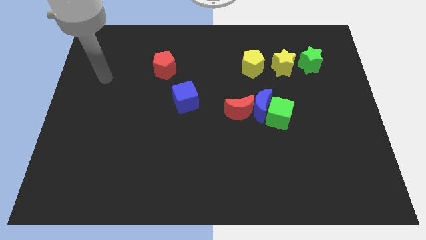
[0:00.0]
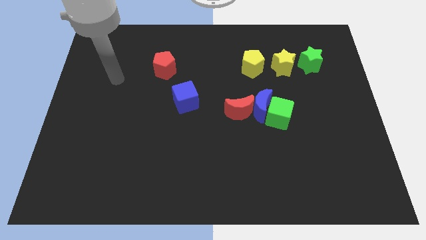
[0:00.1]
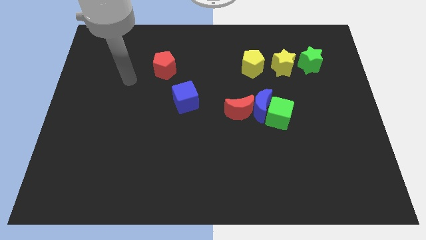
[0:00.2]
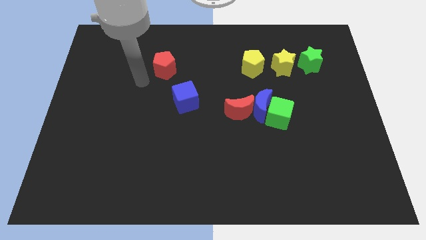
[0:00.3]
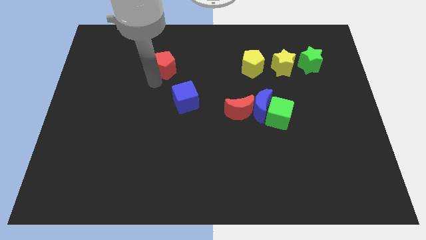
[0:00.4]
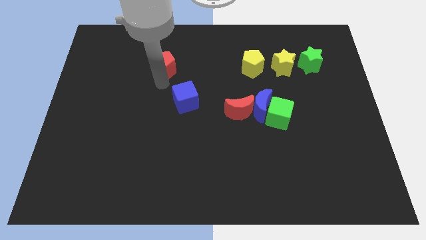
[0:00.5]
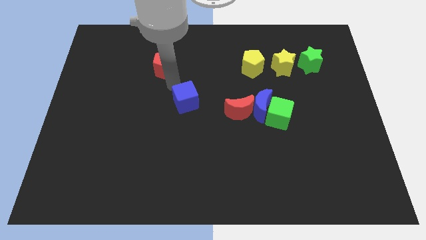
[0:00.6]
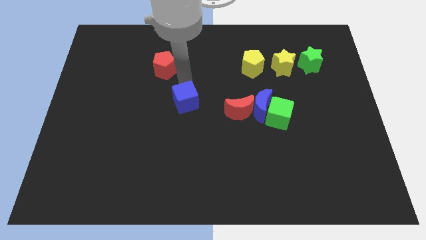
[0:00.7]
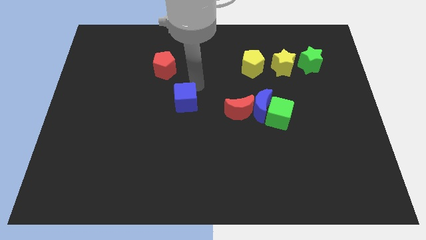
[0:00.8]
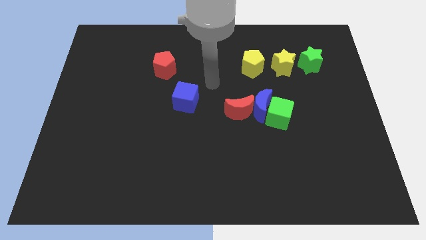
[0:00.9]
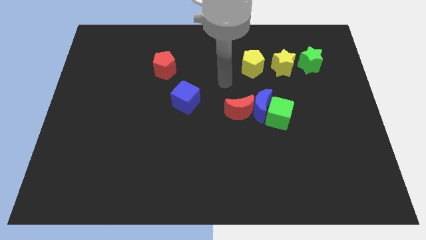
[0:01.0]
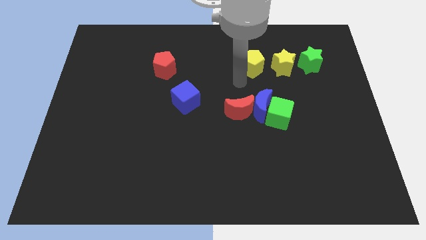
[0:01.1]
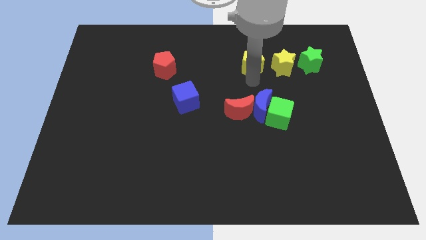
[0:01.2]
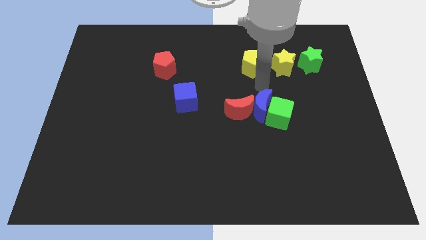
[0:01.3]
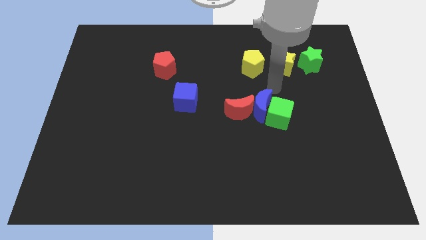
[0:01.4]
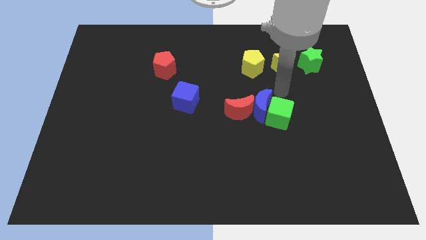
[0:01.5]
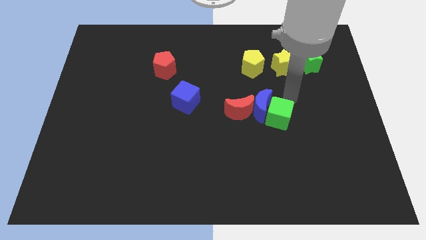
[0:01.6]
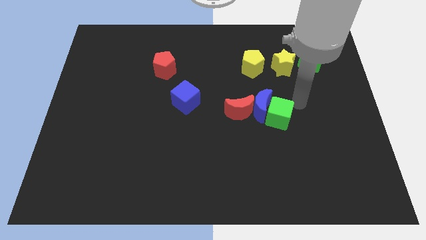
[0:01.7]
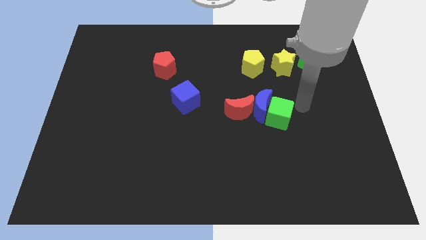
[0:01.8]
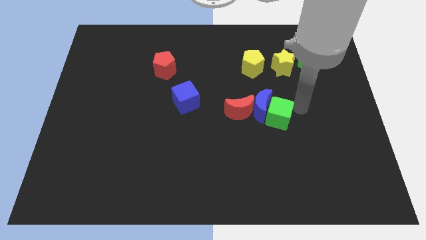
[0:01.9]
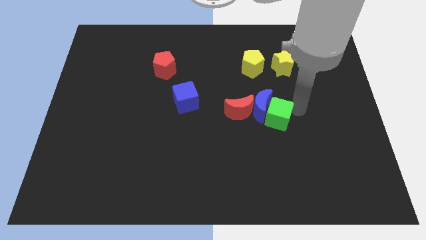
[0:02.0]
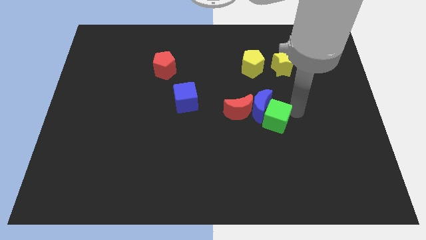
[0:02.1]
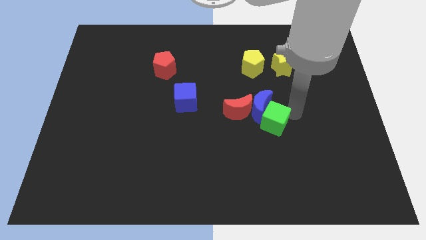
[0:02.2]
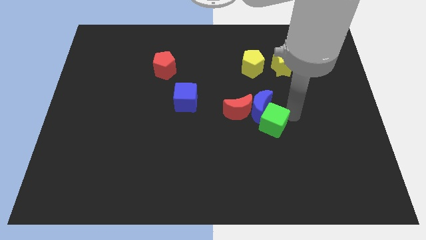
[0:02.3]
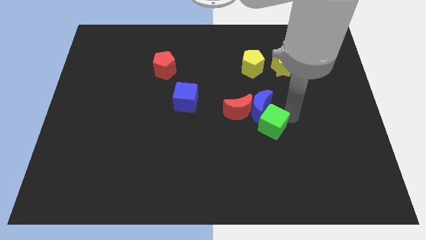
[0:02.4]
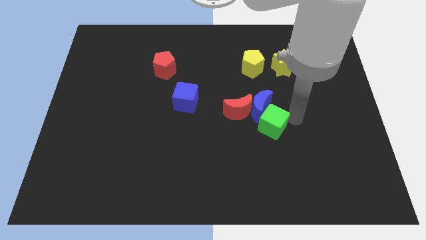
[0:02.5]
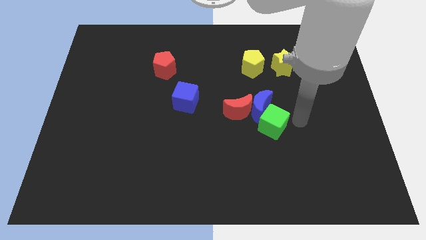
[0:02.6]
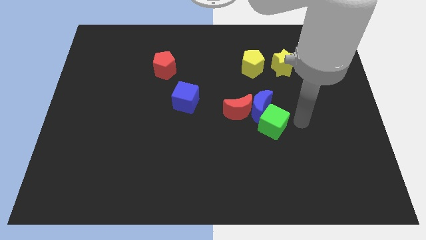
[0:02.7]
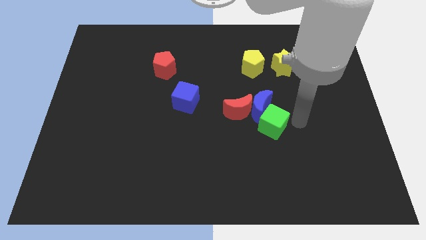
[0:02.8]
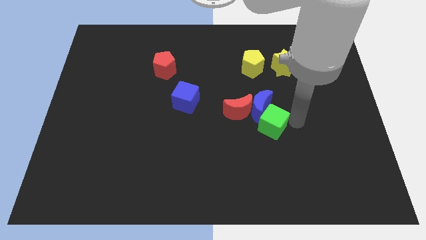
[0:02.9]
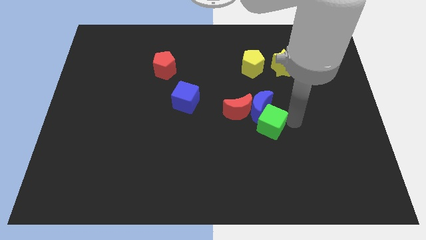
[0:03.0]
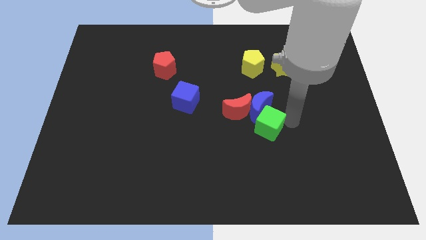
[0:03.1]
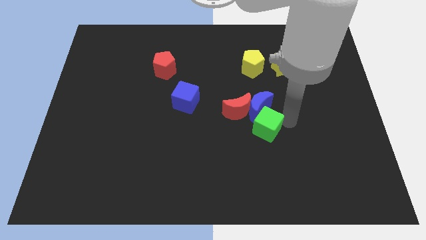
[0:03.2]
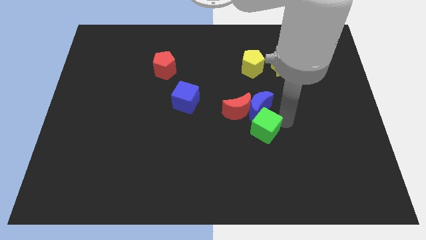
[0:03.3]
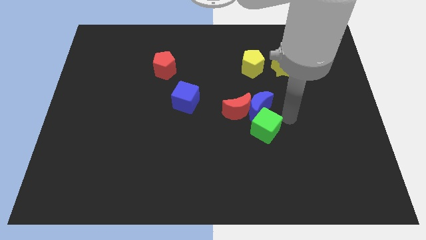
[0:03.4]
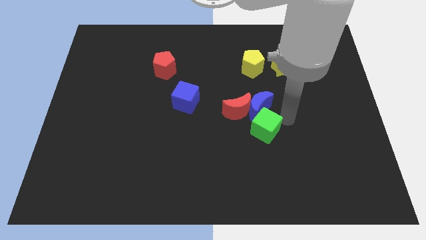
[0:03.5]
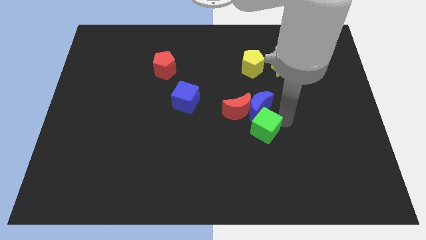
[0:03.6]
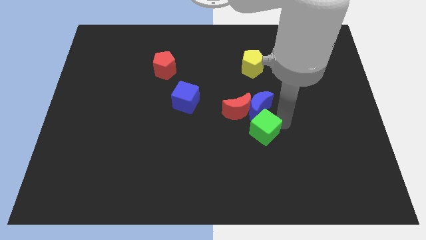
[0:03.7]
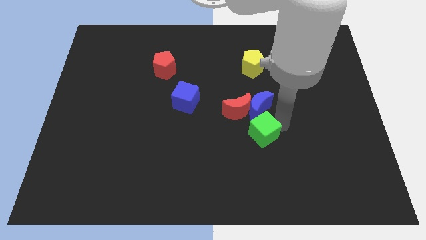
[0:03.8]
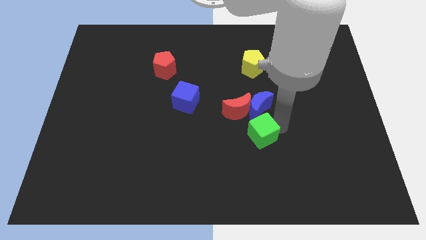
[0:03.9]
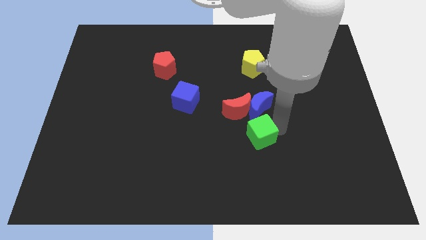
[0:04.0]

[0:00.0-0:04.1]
slightly slide the green cube downwards and then to the left

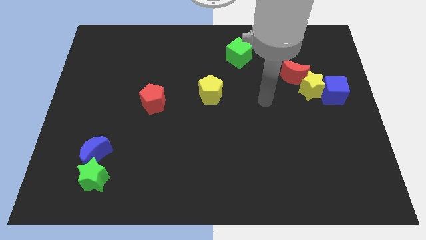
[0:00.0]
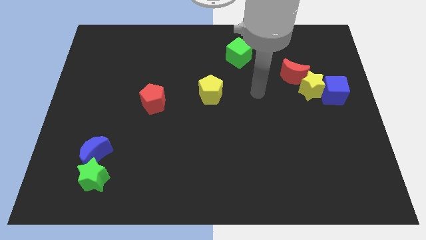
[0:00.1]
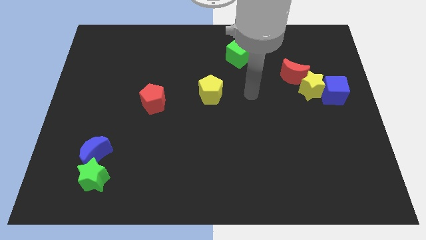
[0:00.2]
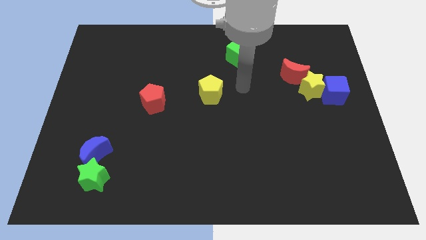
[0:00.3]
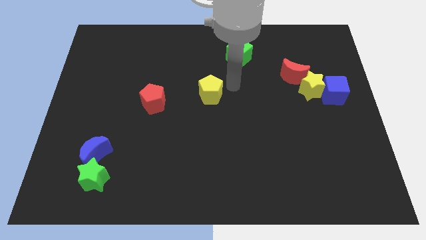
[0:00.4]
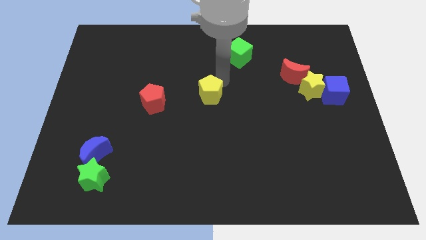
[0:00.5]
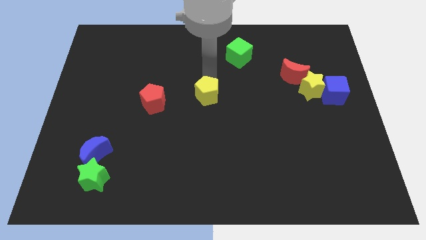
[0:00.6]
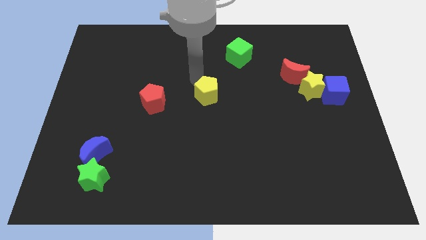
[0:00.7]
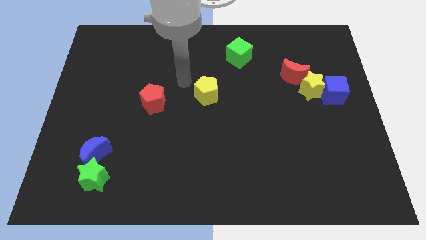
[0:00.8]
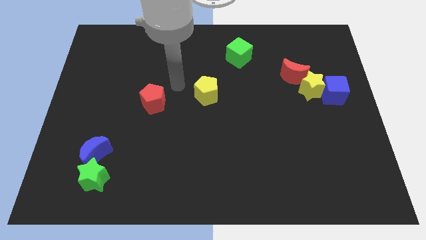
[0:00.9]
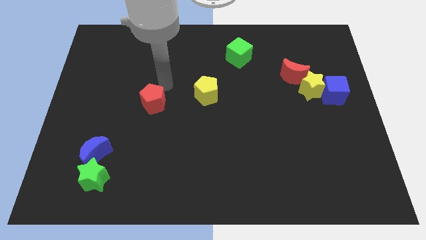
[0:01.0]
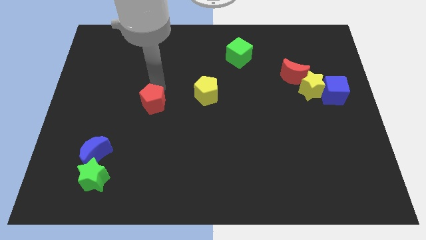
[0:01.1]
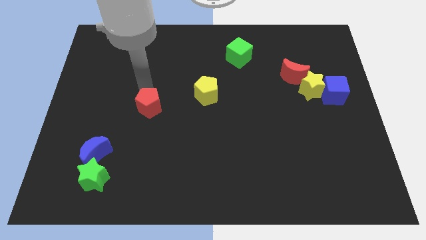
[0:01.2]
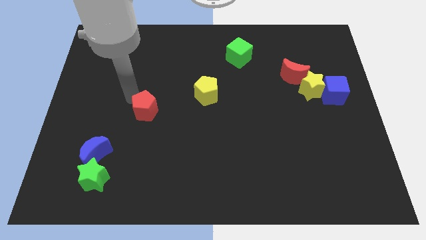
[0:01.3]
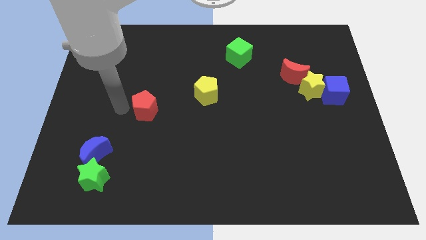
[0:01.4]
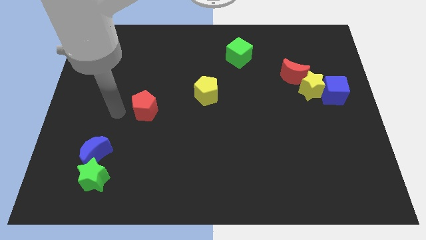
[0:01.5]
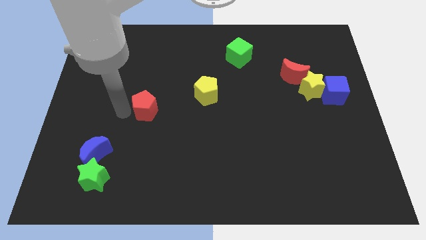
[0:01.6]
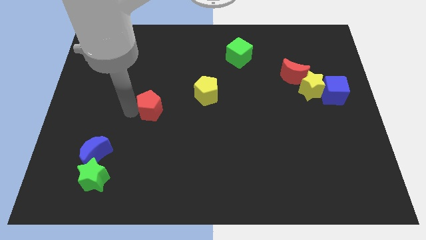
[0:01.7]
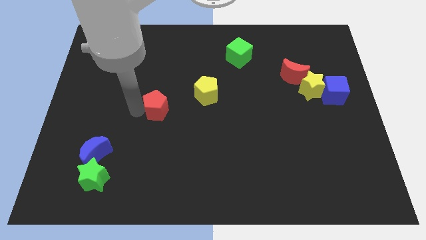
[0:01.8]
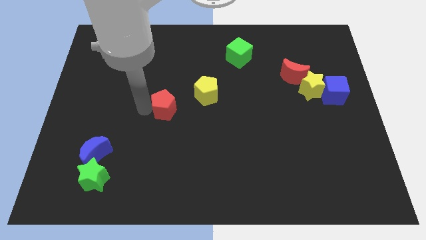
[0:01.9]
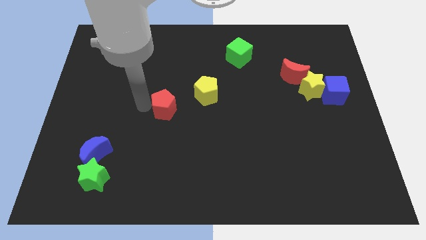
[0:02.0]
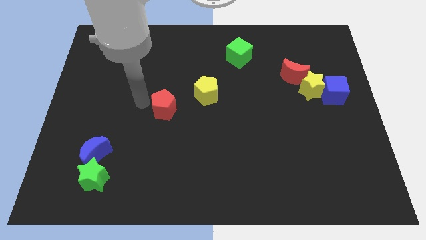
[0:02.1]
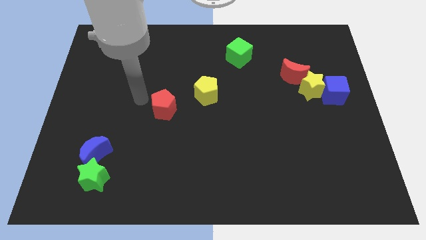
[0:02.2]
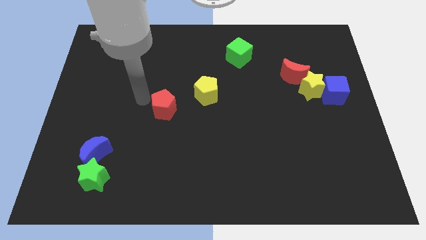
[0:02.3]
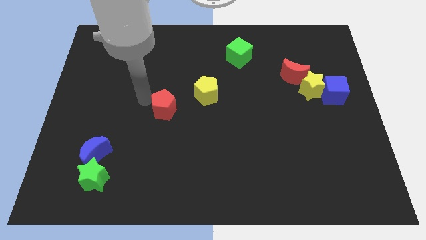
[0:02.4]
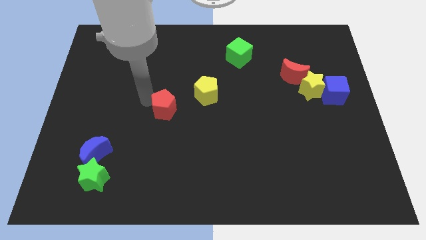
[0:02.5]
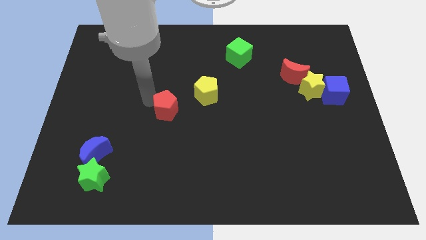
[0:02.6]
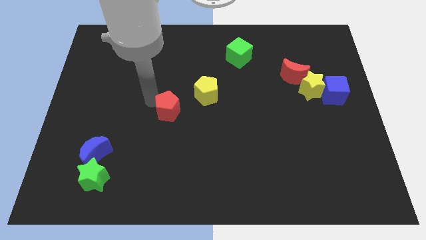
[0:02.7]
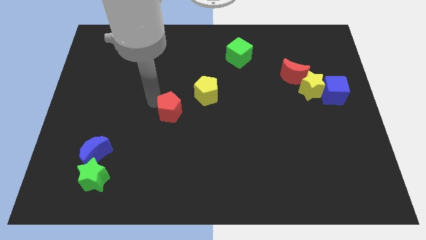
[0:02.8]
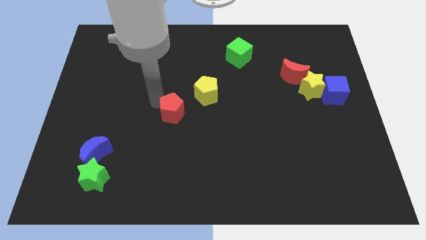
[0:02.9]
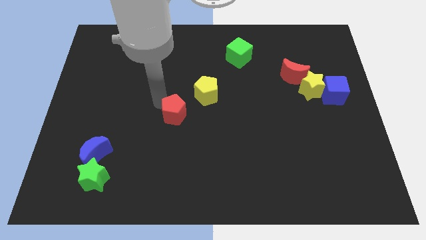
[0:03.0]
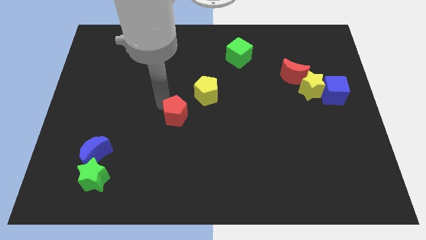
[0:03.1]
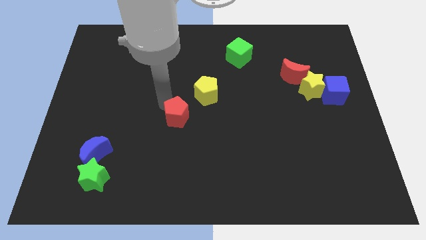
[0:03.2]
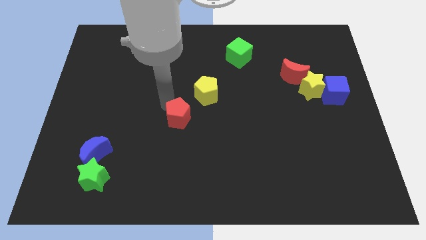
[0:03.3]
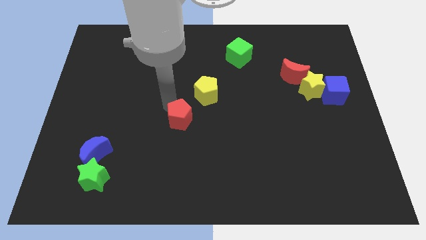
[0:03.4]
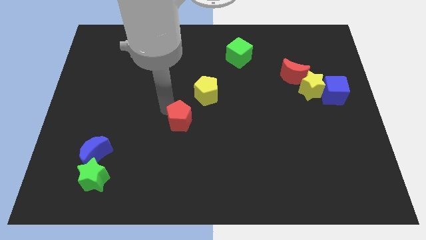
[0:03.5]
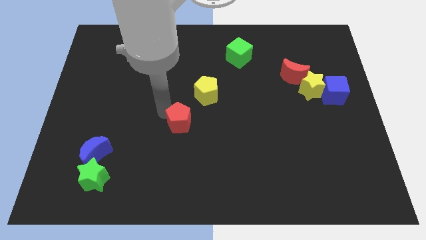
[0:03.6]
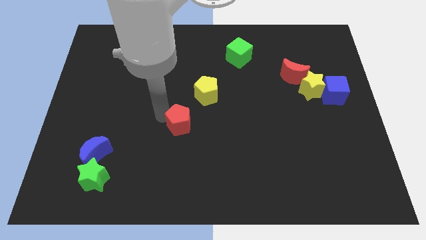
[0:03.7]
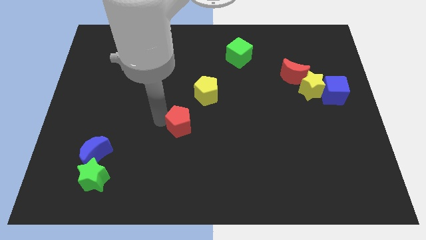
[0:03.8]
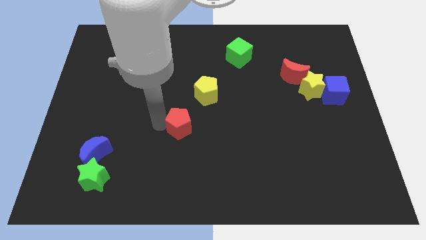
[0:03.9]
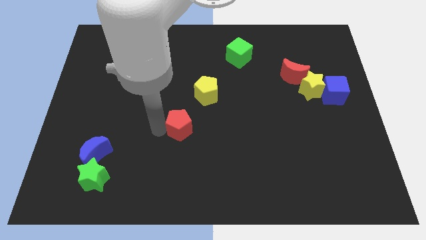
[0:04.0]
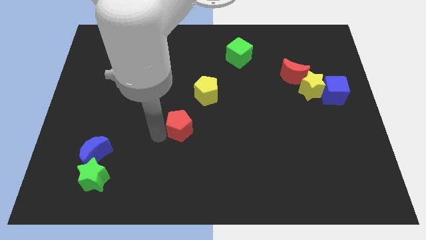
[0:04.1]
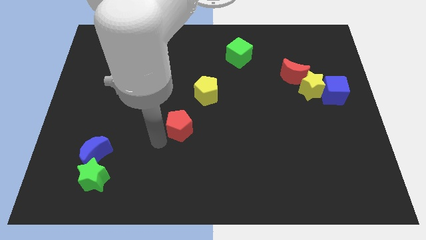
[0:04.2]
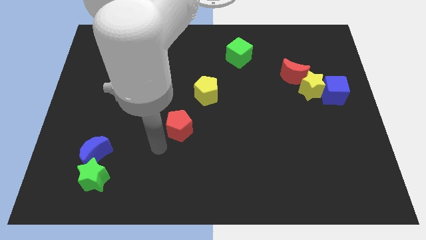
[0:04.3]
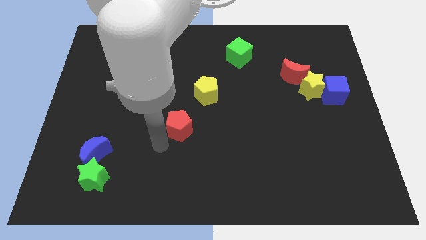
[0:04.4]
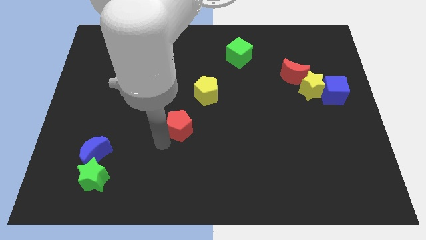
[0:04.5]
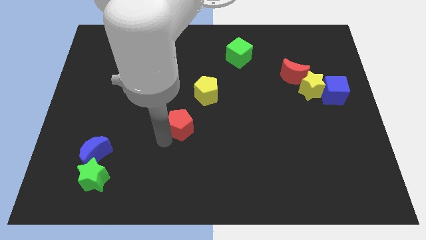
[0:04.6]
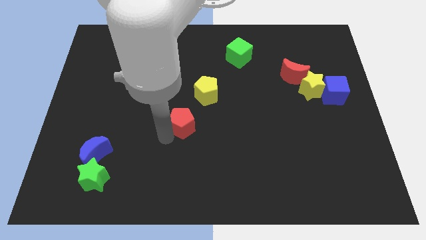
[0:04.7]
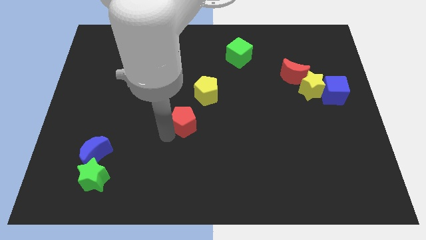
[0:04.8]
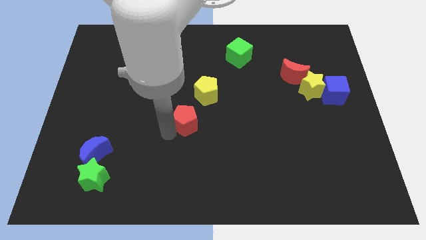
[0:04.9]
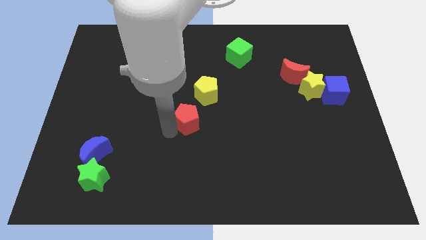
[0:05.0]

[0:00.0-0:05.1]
push the red pentagon slightly right
